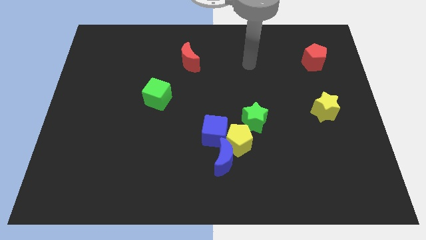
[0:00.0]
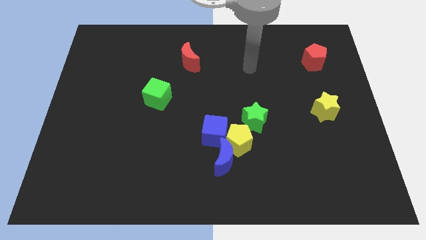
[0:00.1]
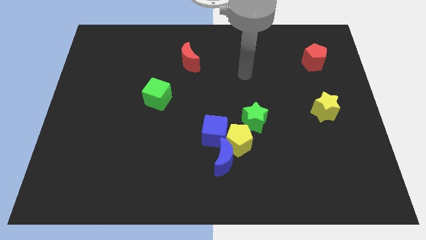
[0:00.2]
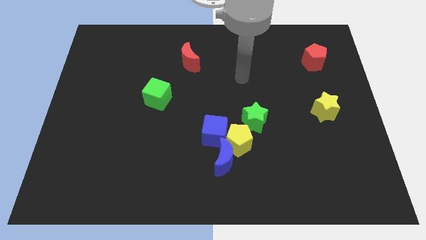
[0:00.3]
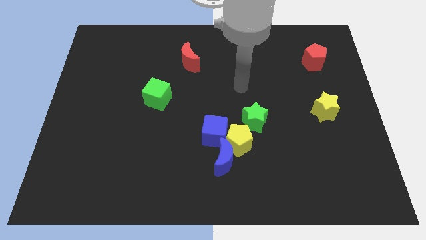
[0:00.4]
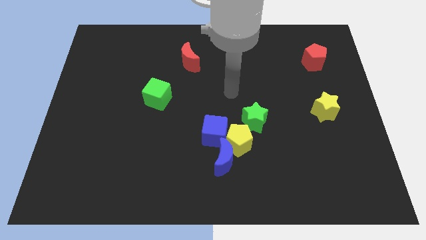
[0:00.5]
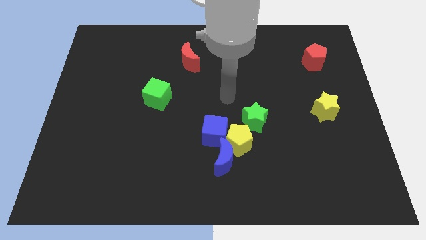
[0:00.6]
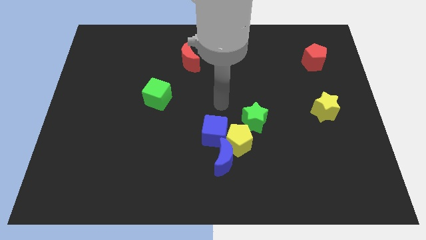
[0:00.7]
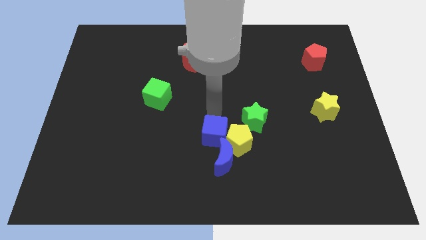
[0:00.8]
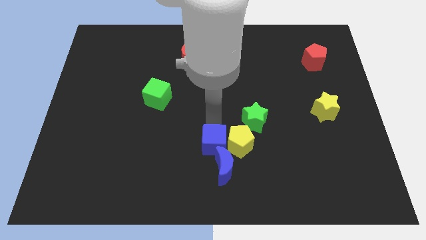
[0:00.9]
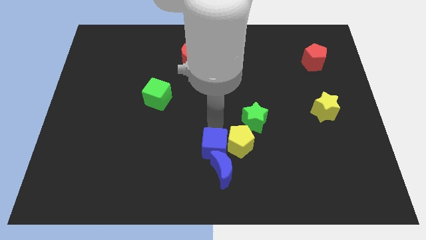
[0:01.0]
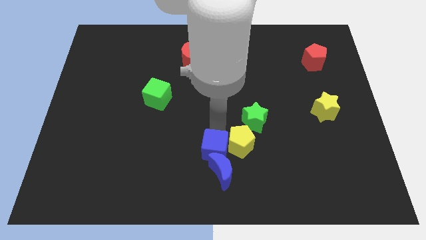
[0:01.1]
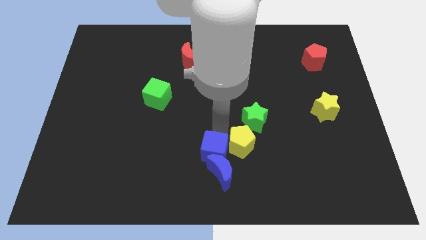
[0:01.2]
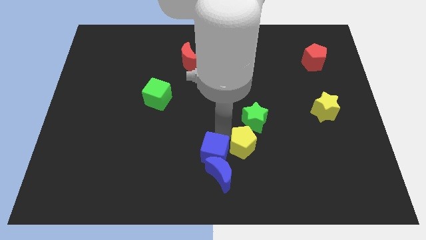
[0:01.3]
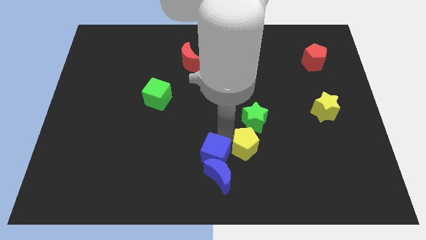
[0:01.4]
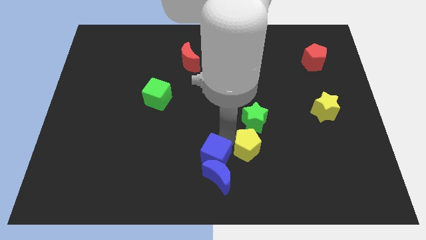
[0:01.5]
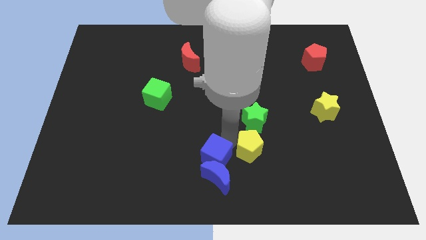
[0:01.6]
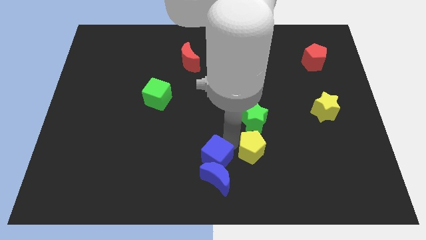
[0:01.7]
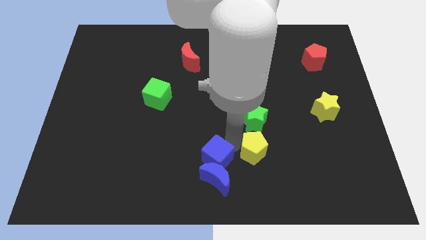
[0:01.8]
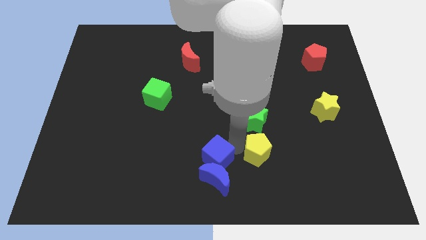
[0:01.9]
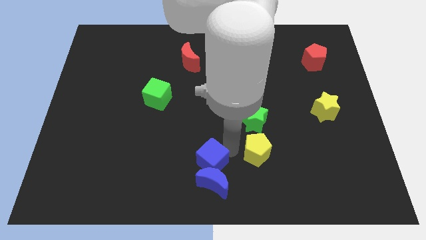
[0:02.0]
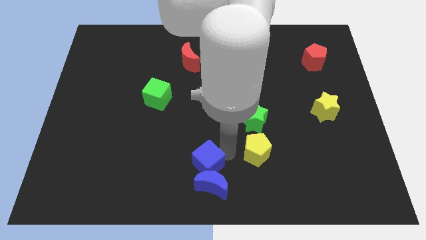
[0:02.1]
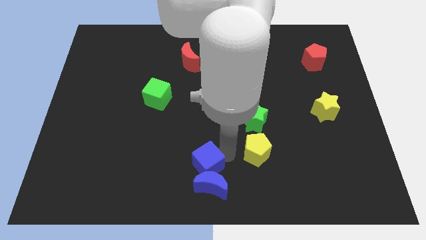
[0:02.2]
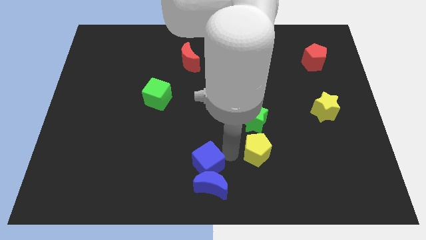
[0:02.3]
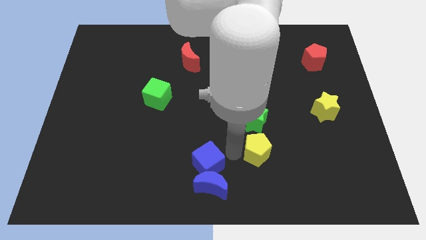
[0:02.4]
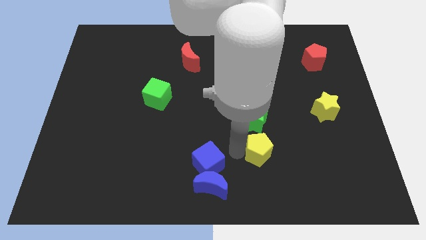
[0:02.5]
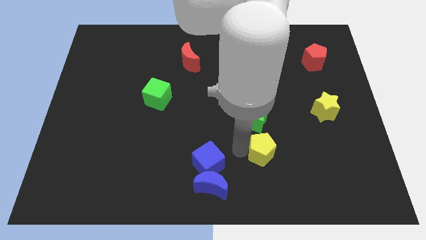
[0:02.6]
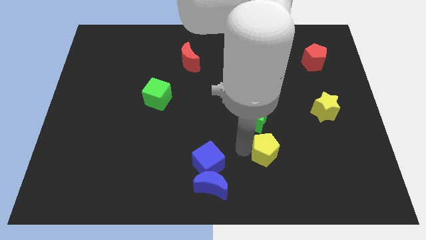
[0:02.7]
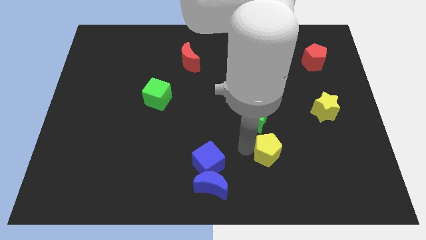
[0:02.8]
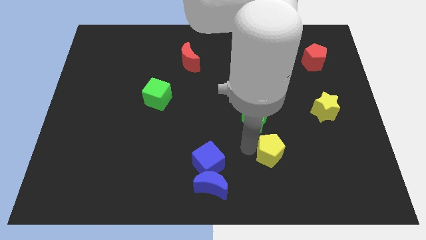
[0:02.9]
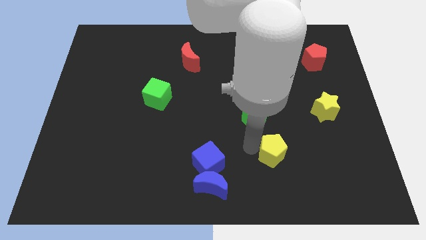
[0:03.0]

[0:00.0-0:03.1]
pull the yellow pentagon apart from the blue moon, blue cube, and green star

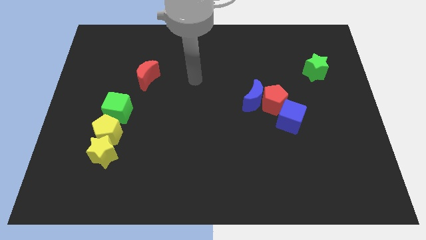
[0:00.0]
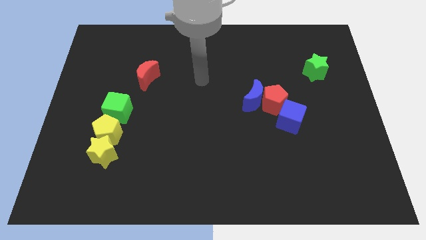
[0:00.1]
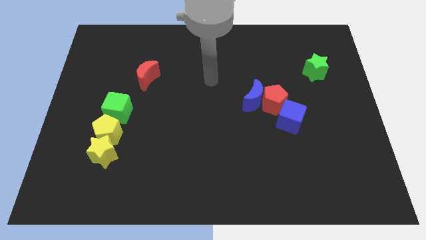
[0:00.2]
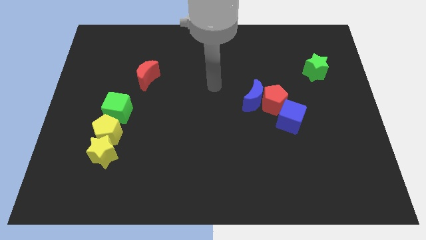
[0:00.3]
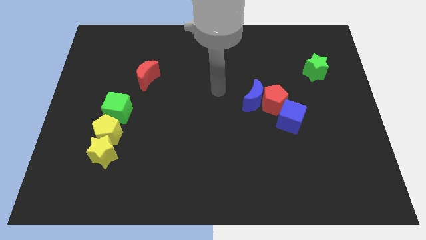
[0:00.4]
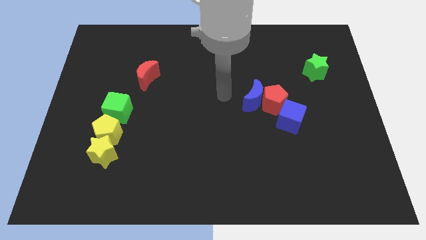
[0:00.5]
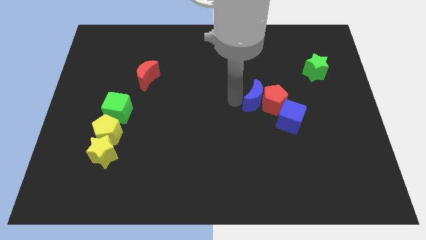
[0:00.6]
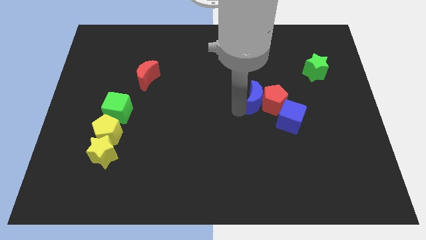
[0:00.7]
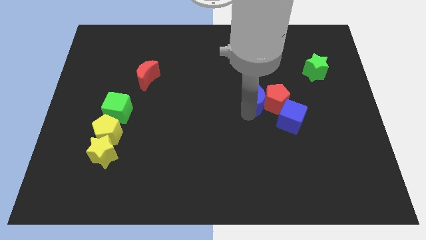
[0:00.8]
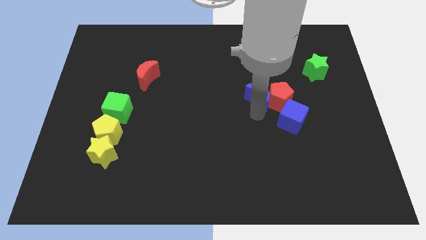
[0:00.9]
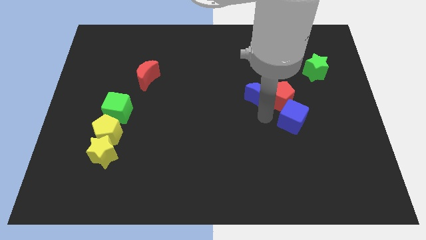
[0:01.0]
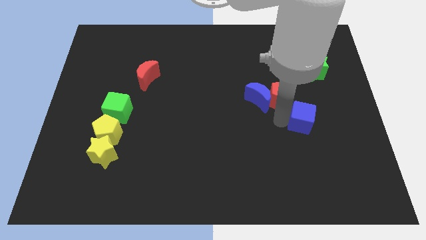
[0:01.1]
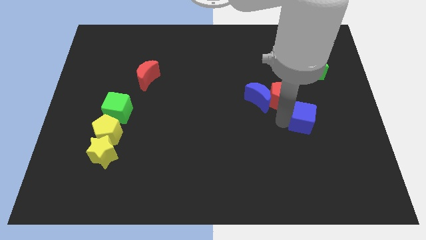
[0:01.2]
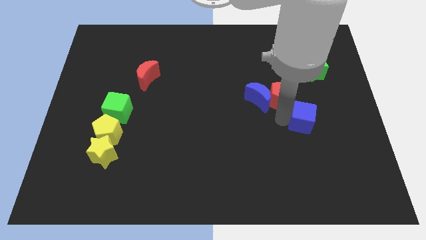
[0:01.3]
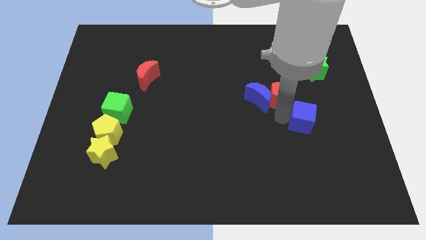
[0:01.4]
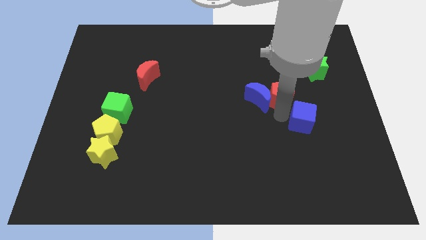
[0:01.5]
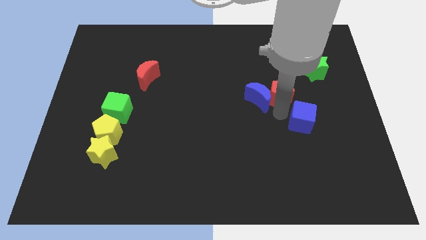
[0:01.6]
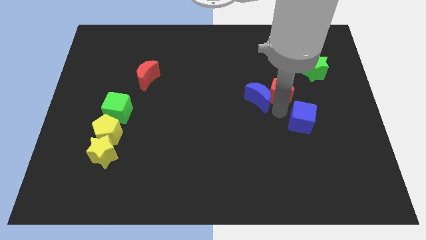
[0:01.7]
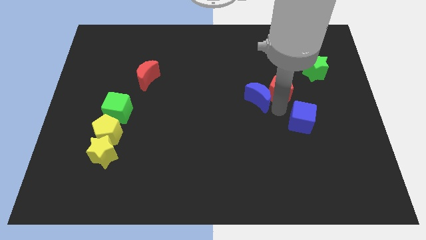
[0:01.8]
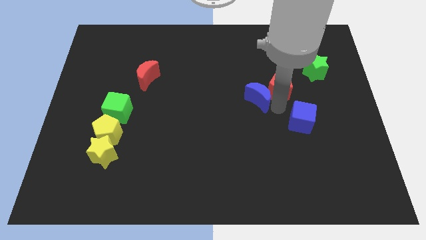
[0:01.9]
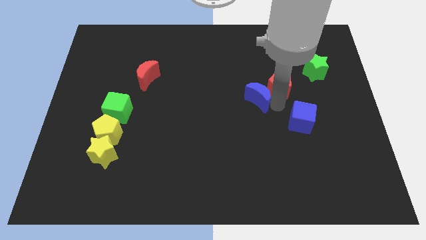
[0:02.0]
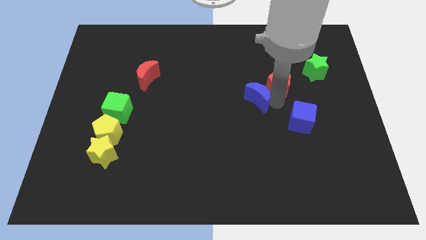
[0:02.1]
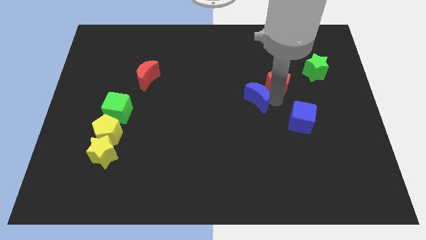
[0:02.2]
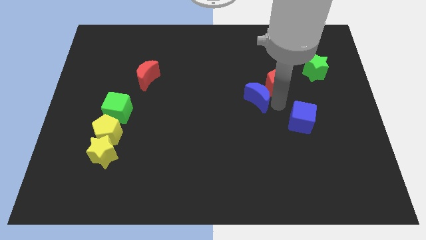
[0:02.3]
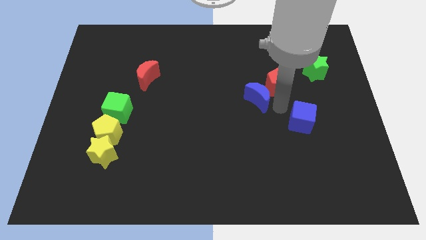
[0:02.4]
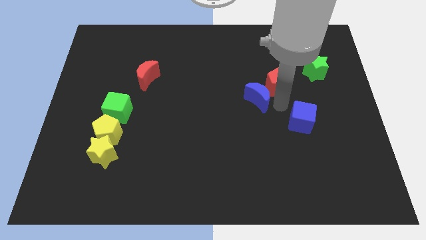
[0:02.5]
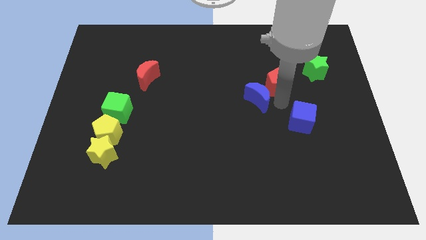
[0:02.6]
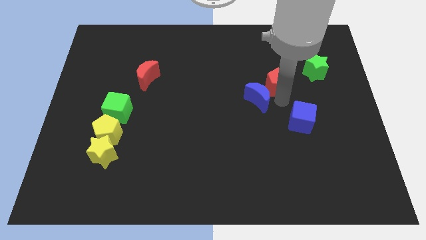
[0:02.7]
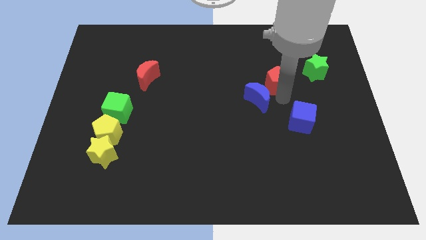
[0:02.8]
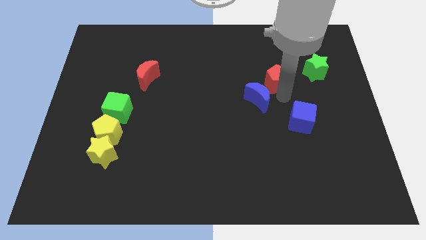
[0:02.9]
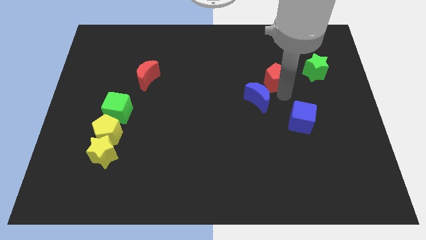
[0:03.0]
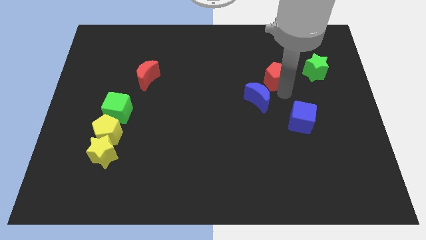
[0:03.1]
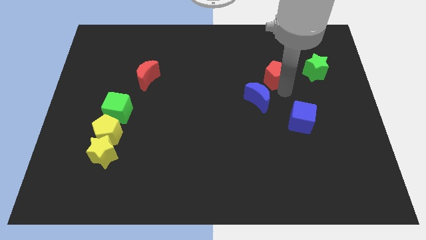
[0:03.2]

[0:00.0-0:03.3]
separate the red pentagon from the blue moon and blue cube

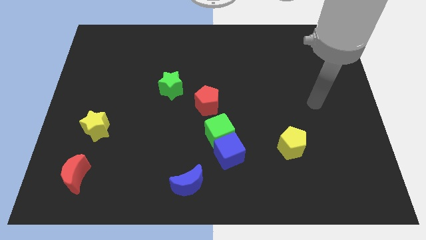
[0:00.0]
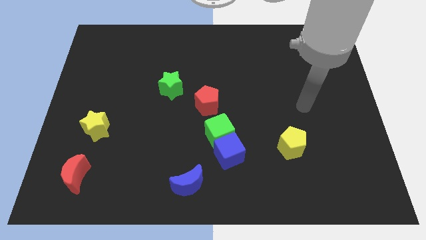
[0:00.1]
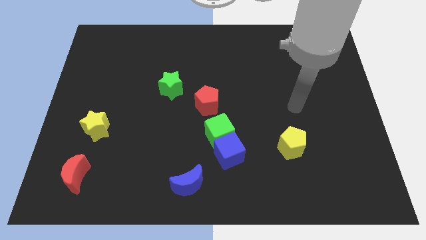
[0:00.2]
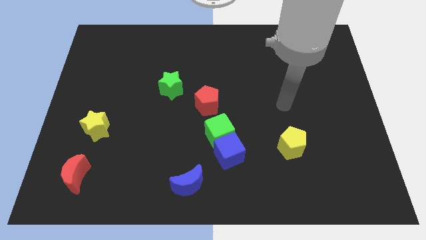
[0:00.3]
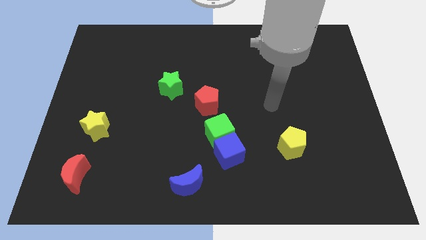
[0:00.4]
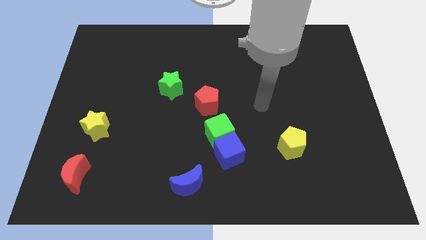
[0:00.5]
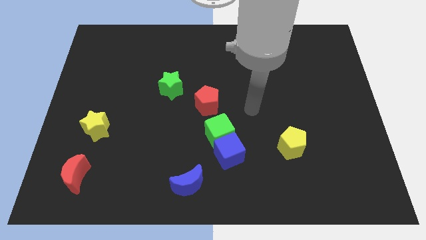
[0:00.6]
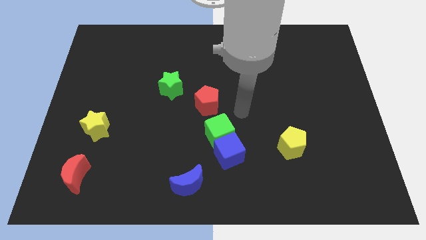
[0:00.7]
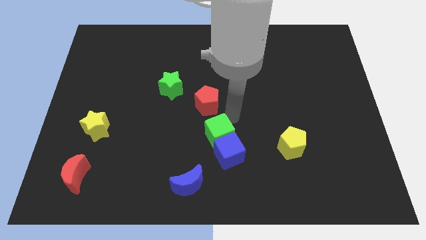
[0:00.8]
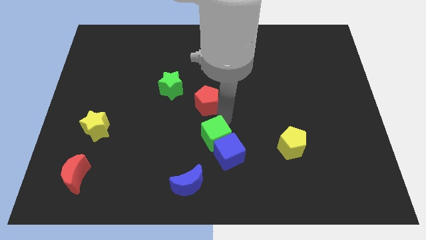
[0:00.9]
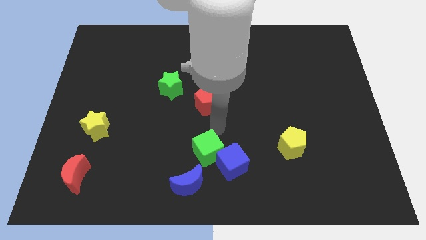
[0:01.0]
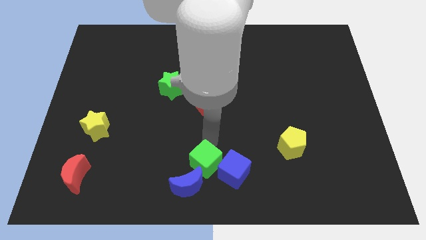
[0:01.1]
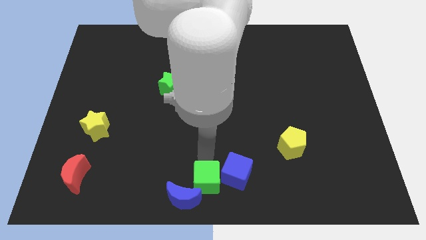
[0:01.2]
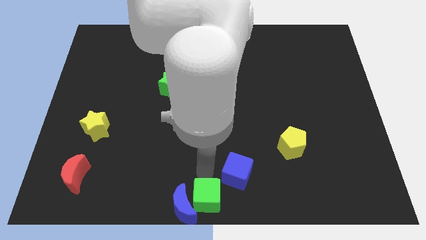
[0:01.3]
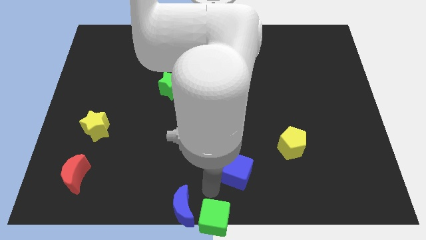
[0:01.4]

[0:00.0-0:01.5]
pull the blue cube apart from the green cube

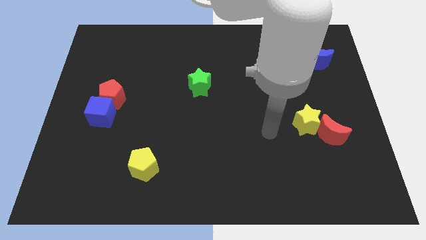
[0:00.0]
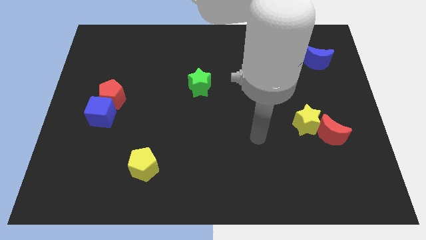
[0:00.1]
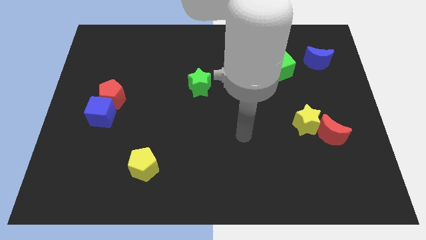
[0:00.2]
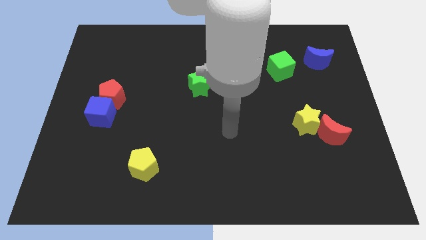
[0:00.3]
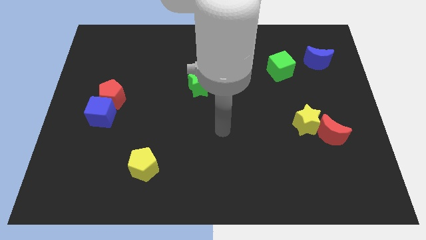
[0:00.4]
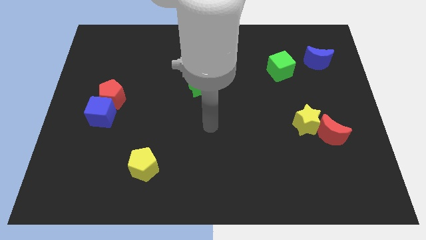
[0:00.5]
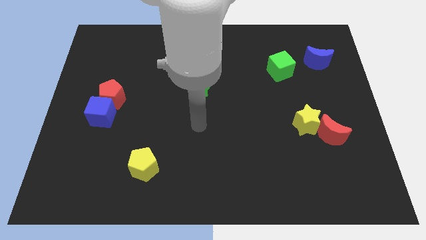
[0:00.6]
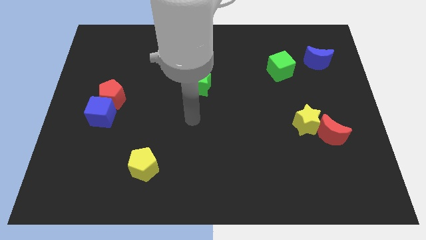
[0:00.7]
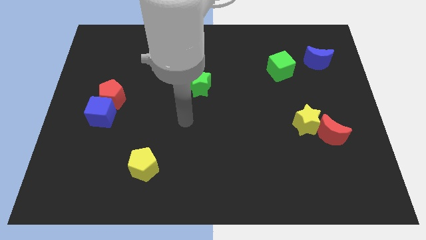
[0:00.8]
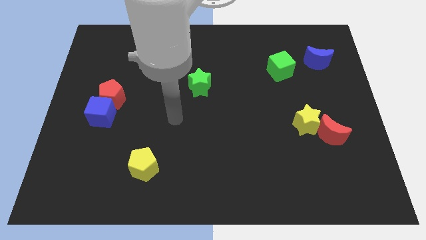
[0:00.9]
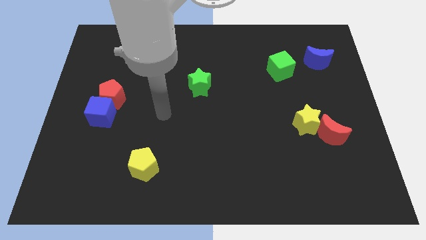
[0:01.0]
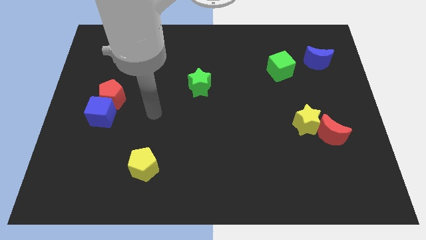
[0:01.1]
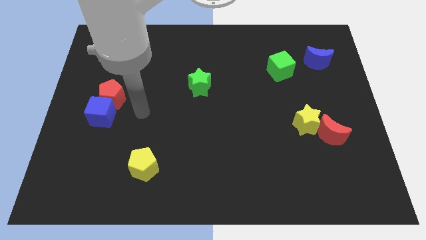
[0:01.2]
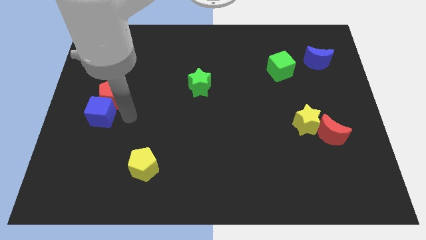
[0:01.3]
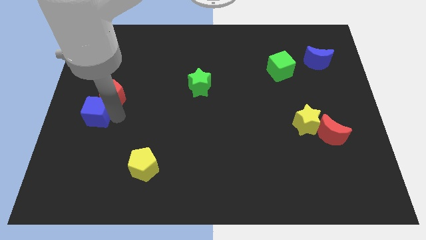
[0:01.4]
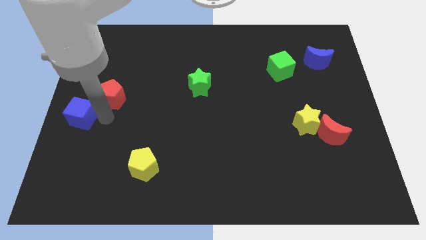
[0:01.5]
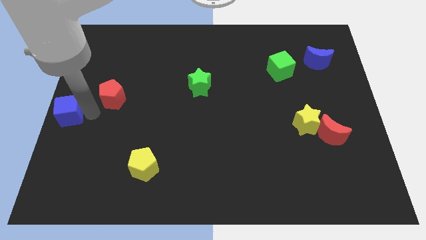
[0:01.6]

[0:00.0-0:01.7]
pull the red pentagon apart from the blue cube
